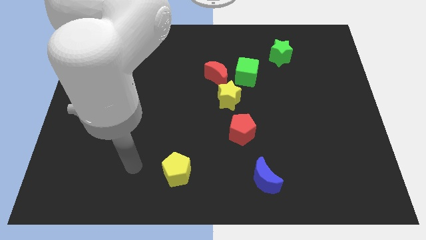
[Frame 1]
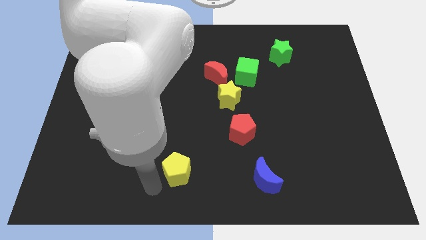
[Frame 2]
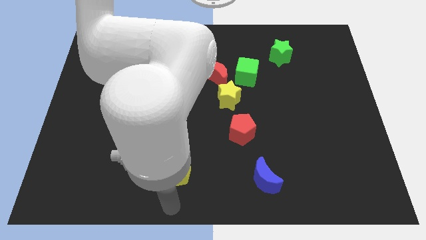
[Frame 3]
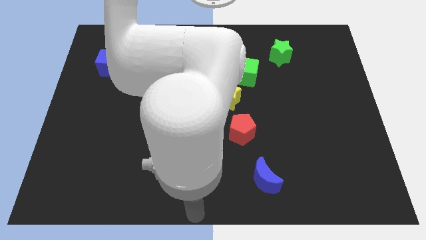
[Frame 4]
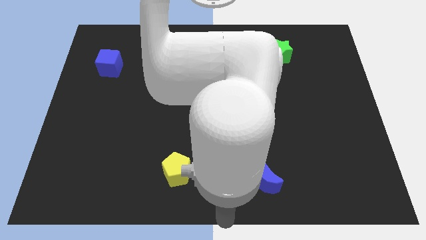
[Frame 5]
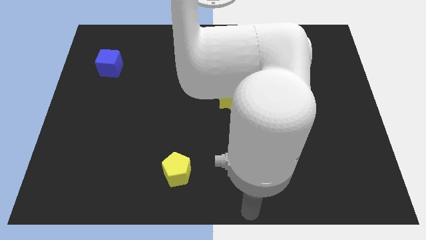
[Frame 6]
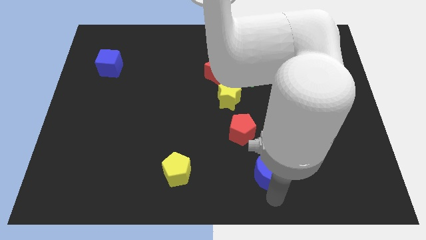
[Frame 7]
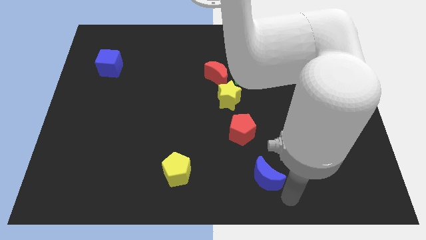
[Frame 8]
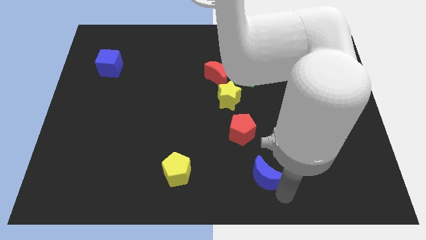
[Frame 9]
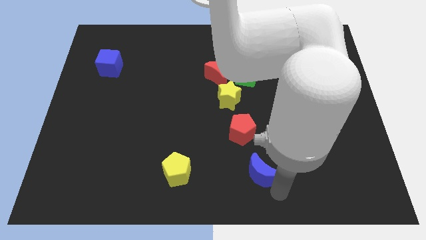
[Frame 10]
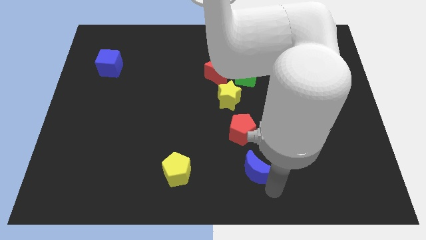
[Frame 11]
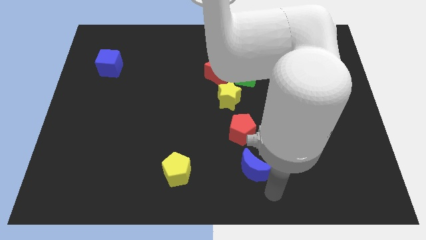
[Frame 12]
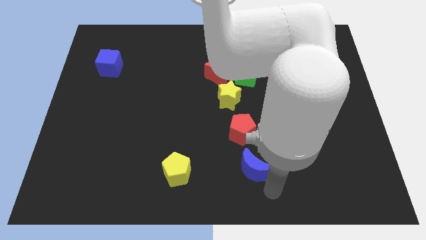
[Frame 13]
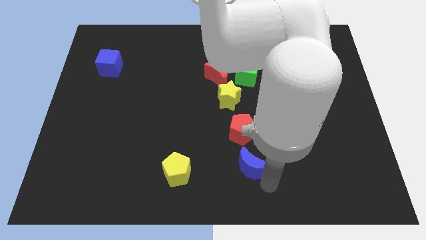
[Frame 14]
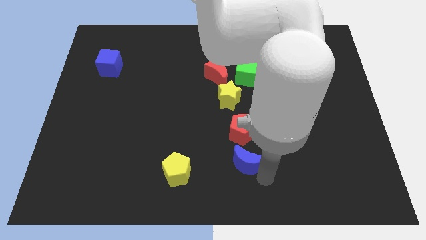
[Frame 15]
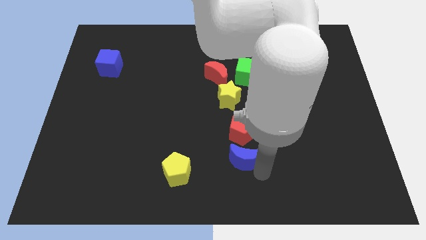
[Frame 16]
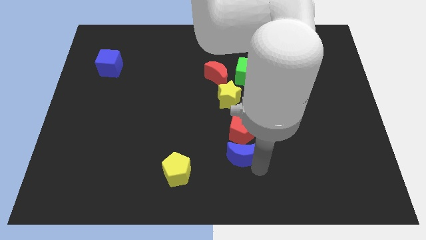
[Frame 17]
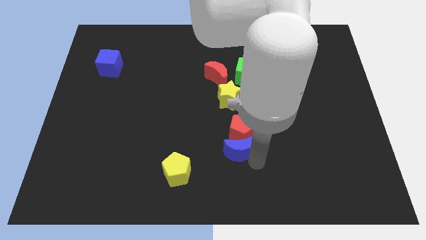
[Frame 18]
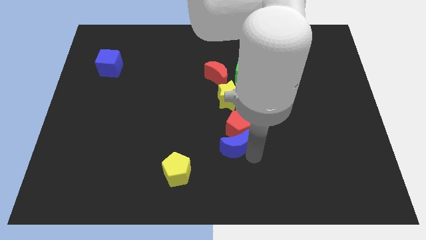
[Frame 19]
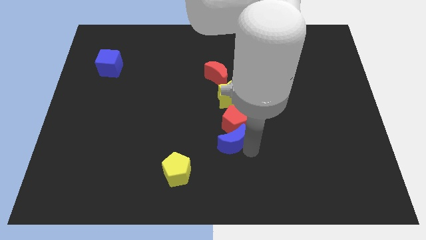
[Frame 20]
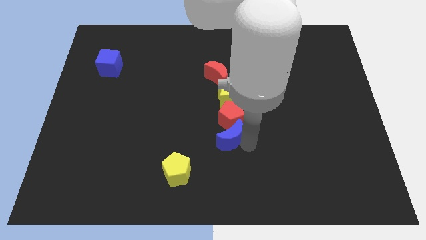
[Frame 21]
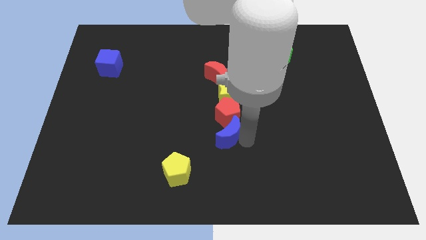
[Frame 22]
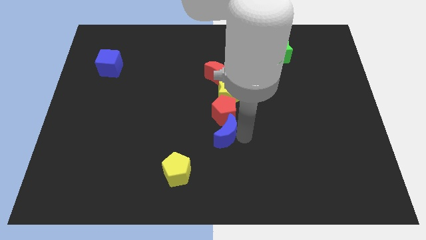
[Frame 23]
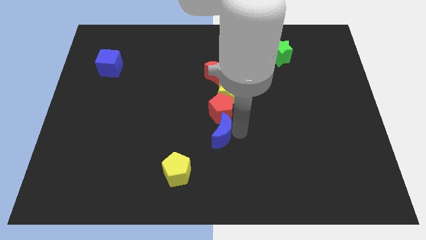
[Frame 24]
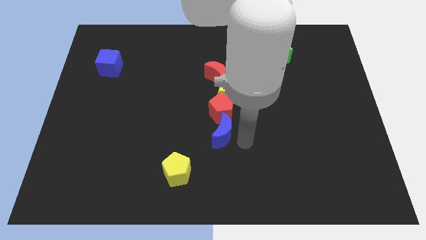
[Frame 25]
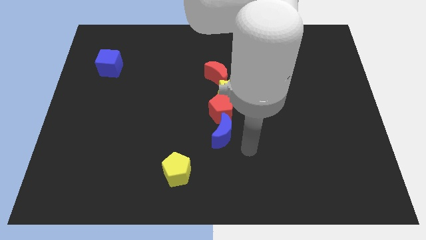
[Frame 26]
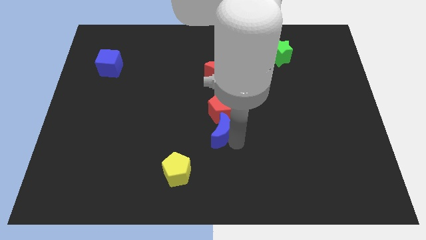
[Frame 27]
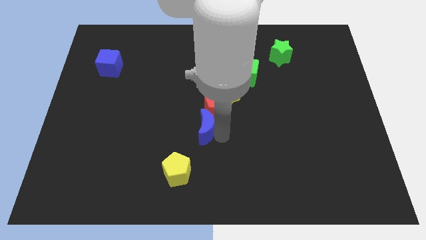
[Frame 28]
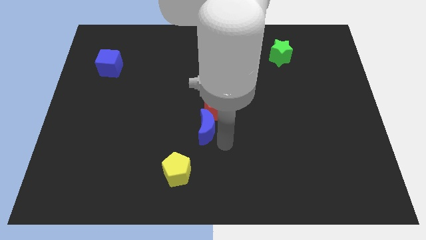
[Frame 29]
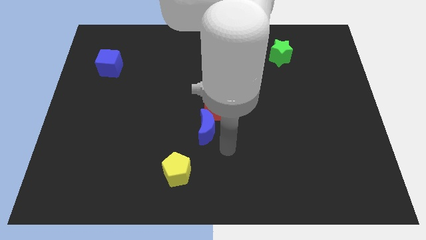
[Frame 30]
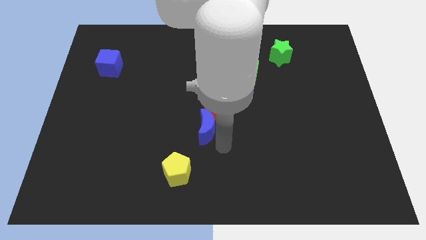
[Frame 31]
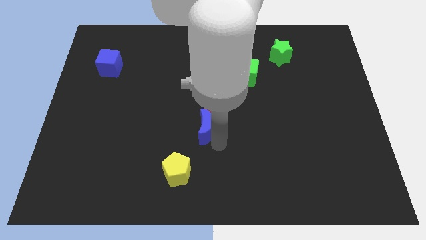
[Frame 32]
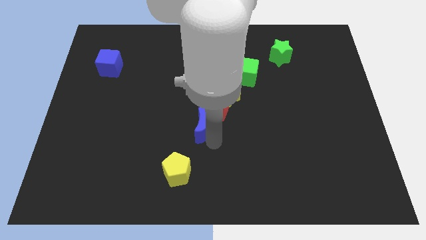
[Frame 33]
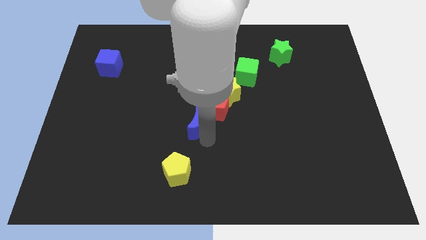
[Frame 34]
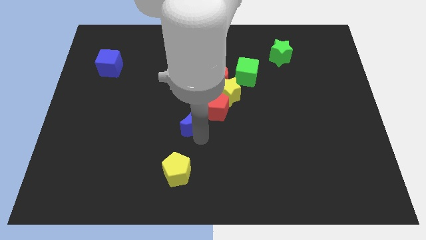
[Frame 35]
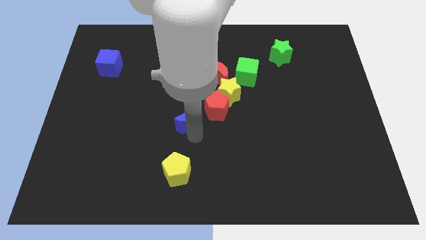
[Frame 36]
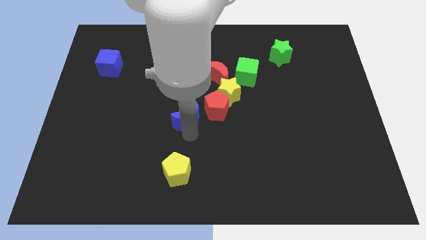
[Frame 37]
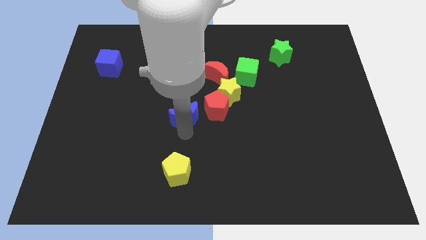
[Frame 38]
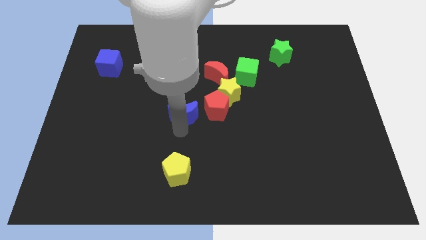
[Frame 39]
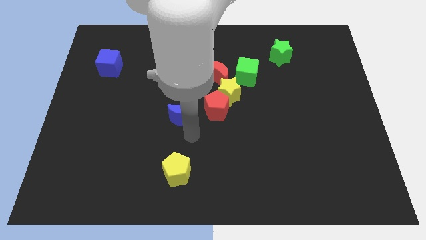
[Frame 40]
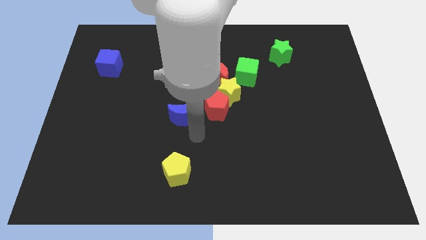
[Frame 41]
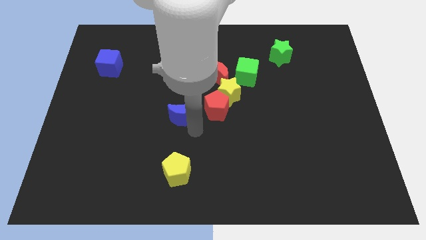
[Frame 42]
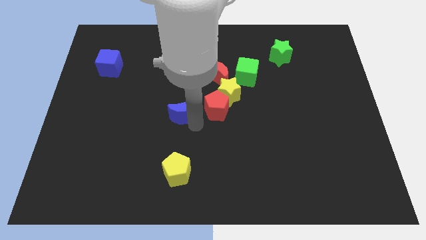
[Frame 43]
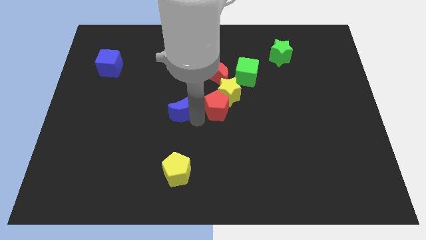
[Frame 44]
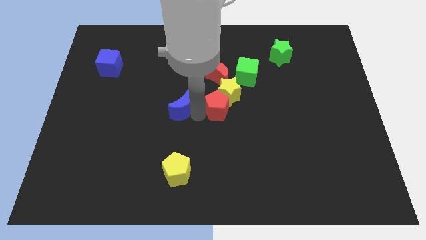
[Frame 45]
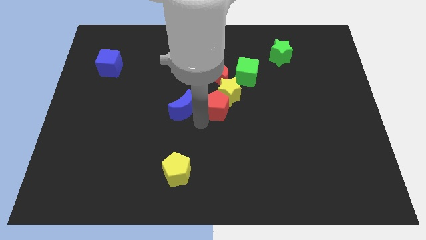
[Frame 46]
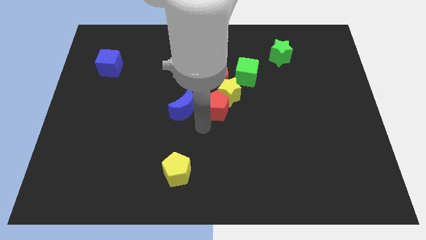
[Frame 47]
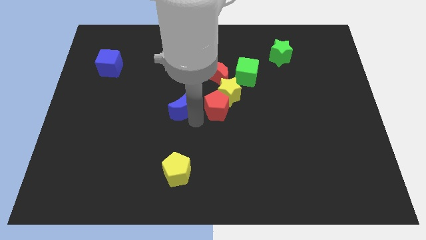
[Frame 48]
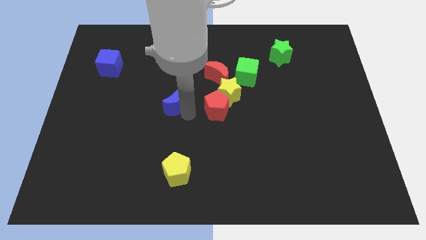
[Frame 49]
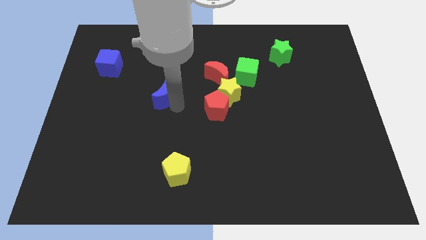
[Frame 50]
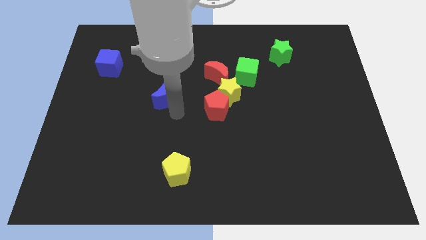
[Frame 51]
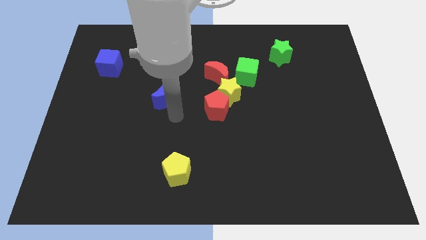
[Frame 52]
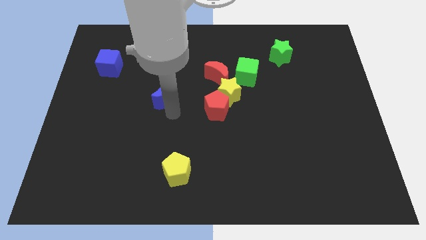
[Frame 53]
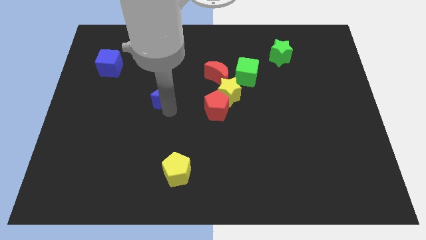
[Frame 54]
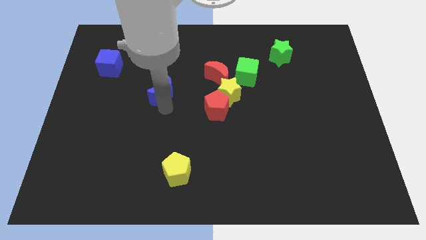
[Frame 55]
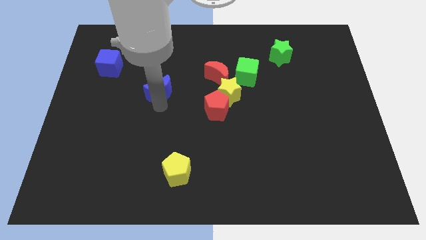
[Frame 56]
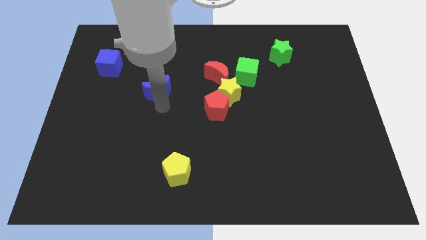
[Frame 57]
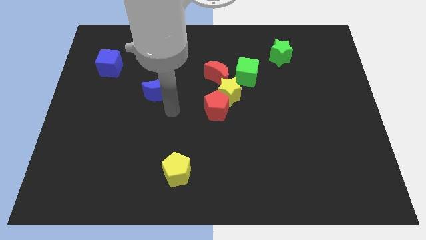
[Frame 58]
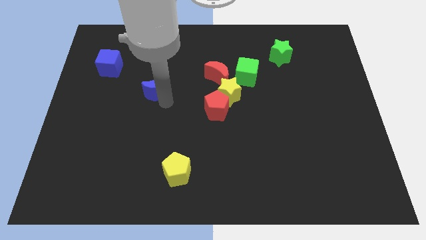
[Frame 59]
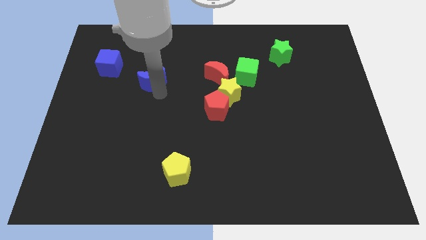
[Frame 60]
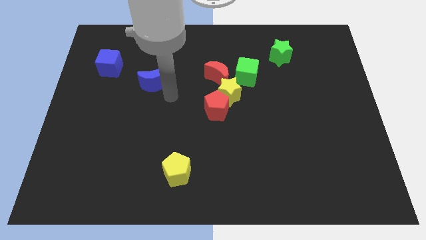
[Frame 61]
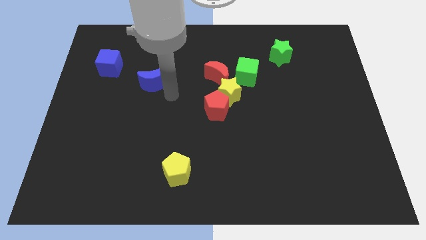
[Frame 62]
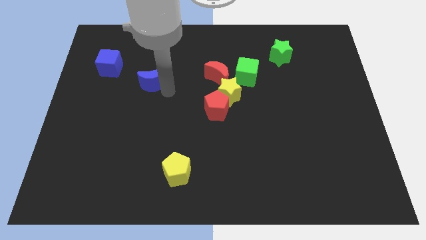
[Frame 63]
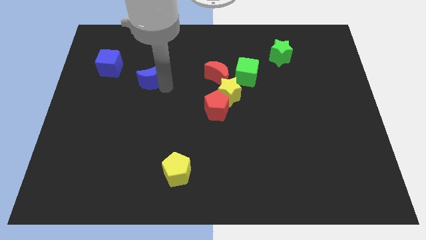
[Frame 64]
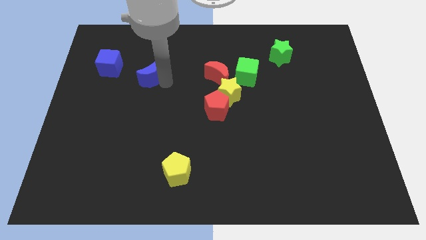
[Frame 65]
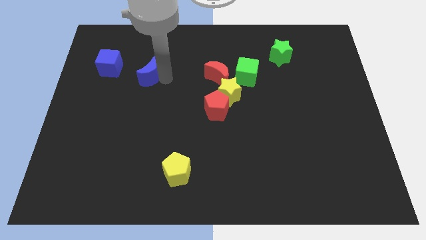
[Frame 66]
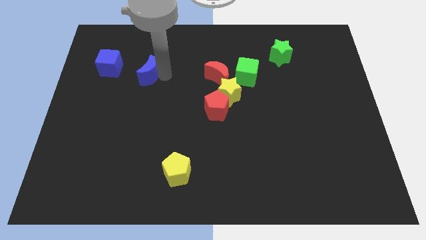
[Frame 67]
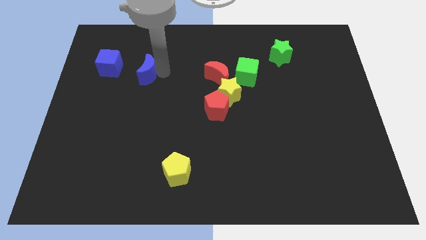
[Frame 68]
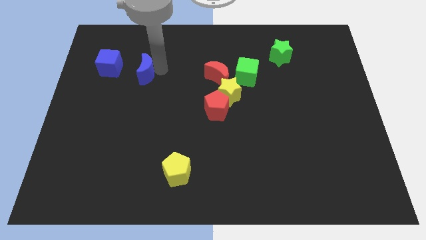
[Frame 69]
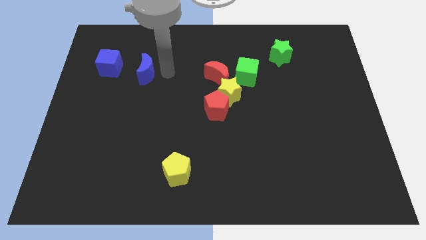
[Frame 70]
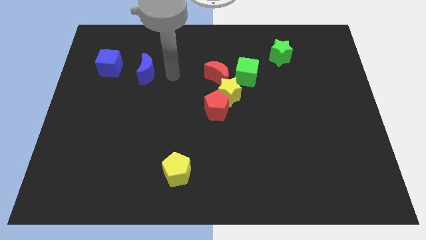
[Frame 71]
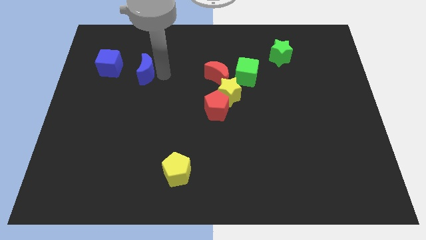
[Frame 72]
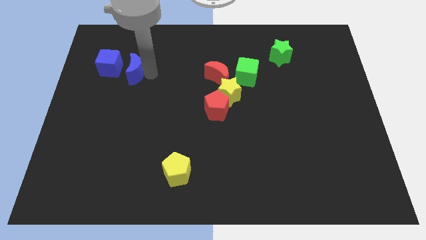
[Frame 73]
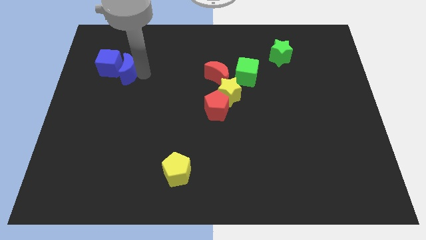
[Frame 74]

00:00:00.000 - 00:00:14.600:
push the blue moon close to the blue cube
